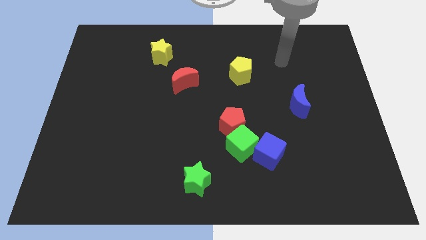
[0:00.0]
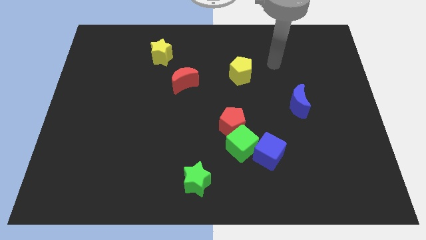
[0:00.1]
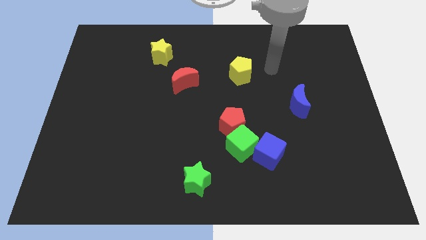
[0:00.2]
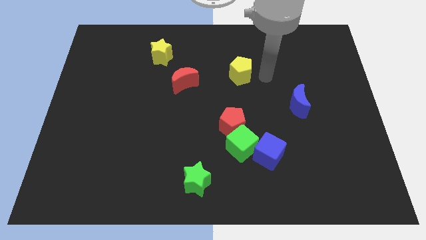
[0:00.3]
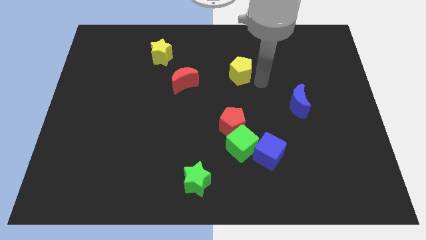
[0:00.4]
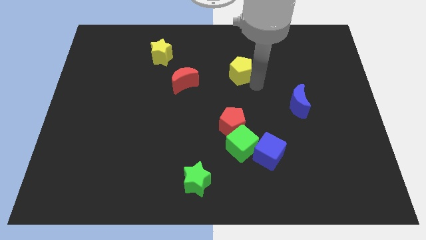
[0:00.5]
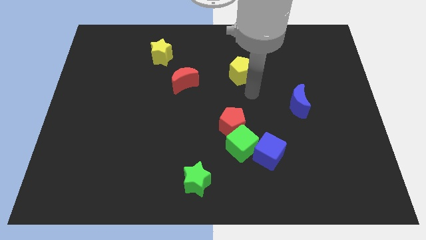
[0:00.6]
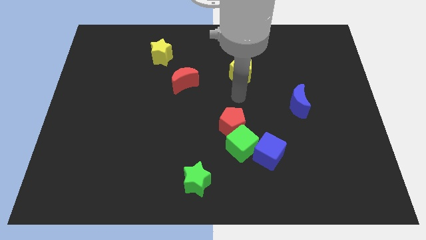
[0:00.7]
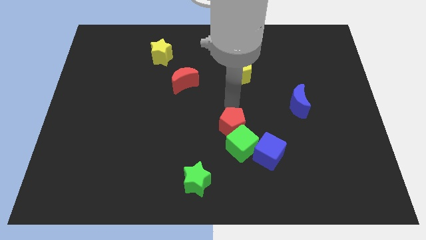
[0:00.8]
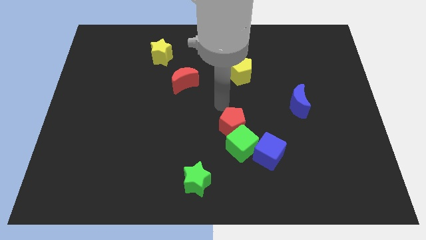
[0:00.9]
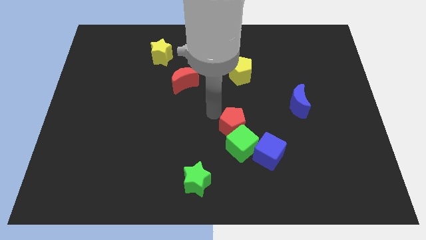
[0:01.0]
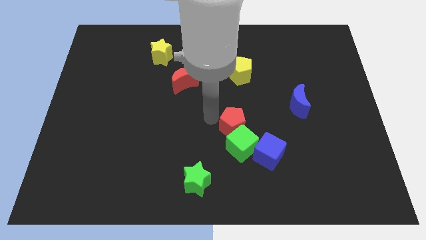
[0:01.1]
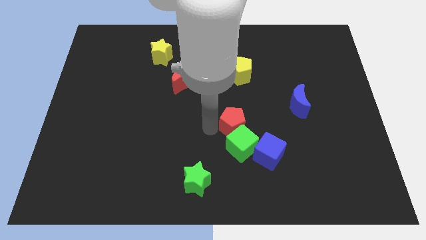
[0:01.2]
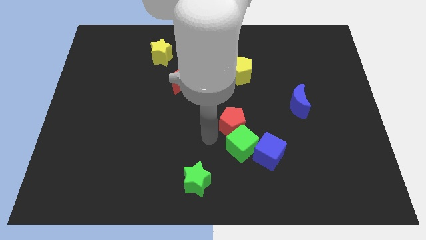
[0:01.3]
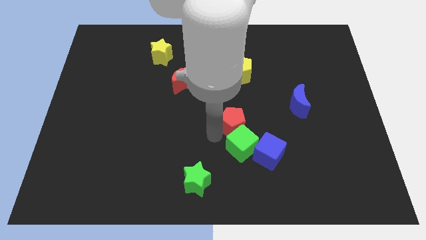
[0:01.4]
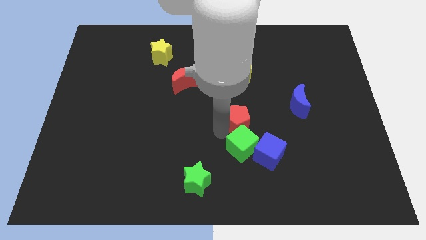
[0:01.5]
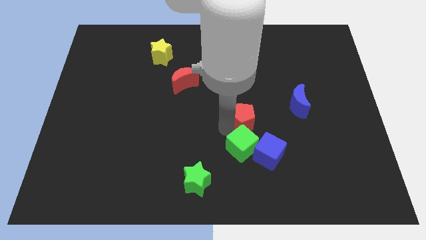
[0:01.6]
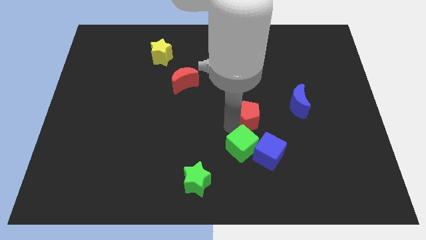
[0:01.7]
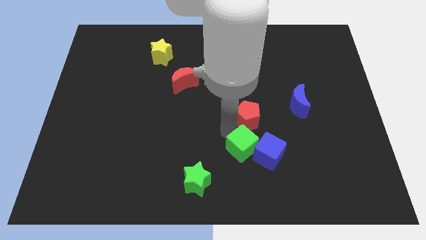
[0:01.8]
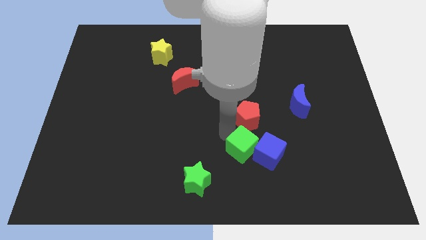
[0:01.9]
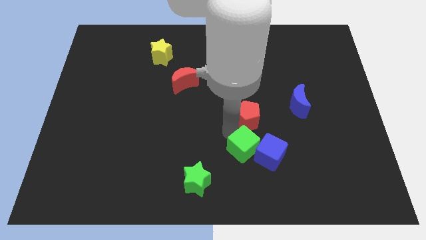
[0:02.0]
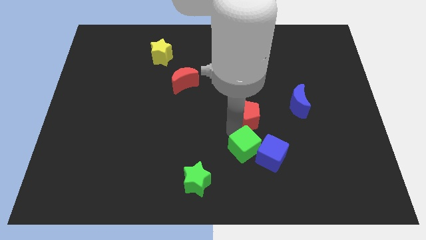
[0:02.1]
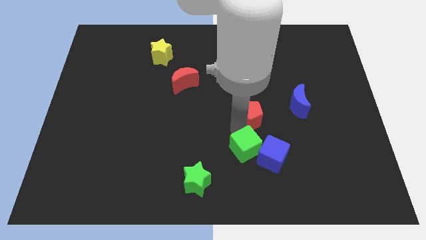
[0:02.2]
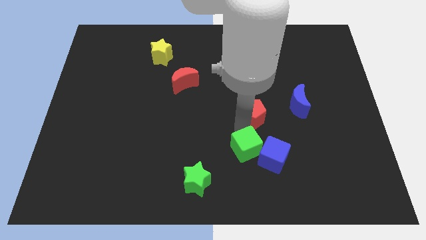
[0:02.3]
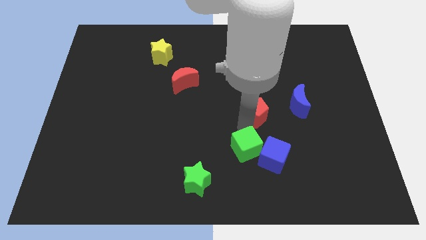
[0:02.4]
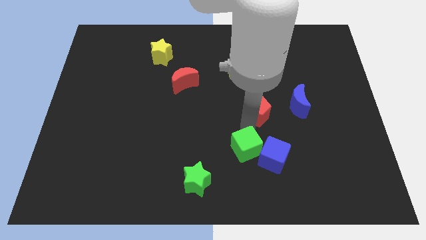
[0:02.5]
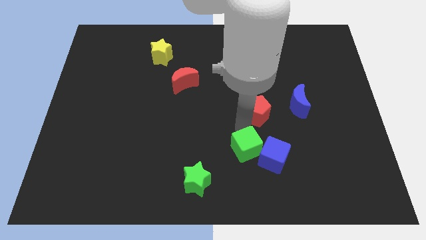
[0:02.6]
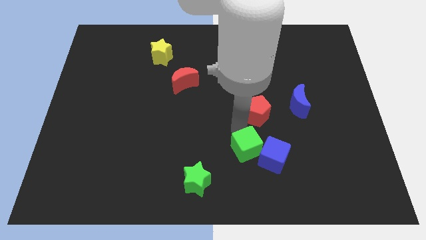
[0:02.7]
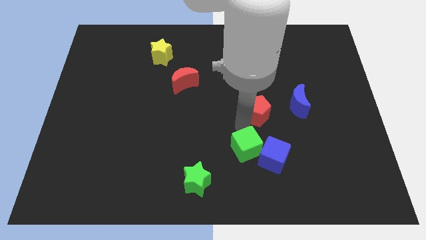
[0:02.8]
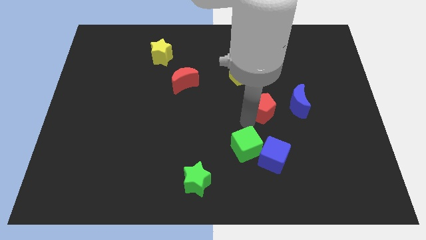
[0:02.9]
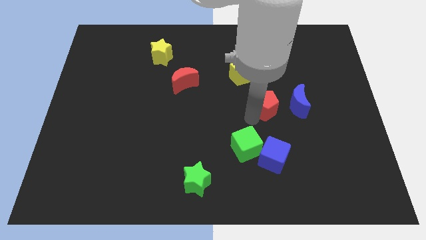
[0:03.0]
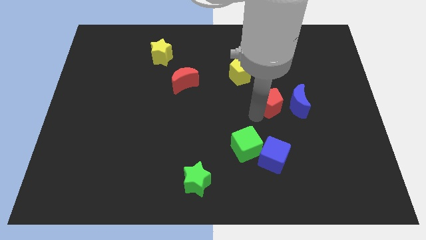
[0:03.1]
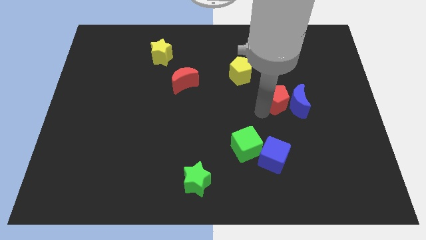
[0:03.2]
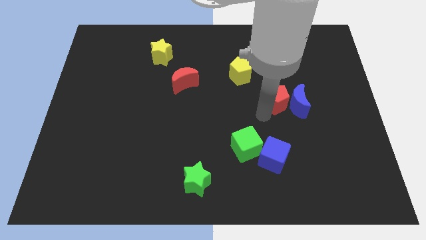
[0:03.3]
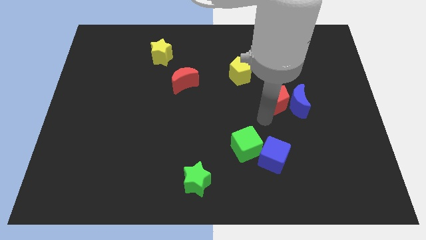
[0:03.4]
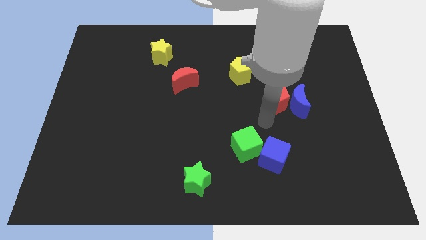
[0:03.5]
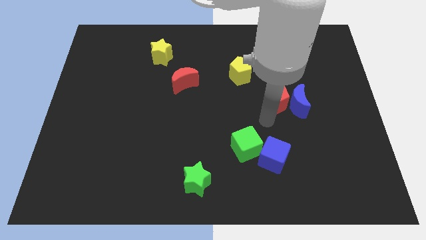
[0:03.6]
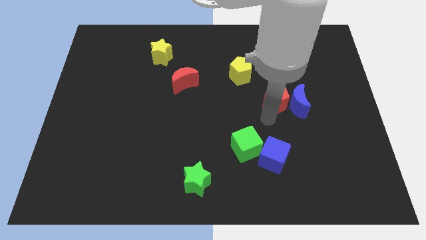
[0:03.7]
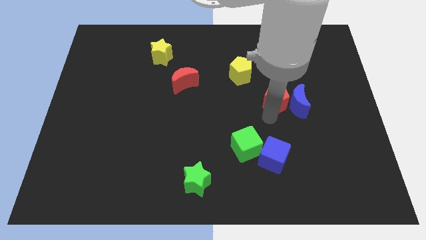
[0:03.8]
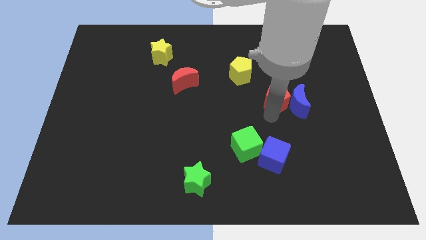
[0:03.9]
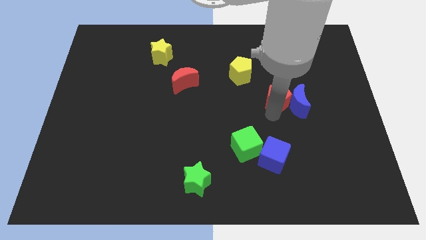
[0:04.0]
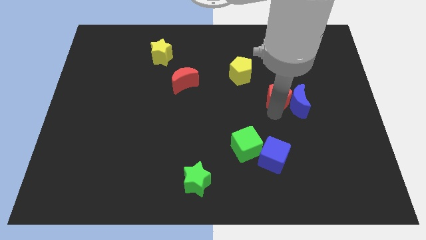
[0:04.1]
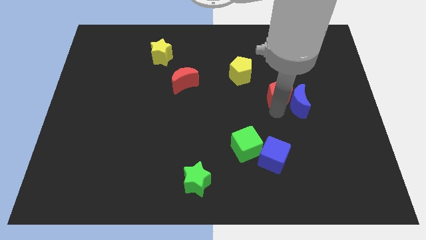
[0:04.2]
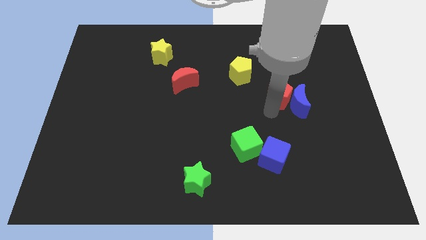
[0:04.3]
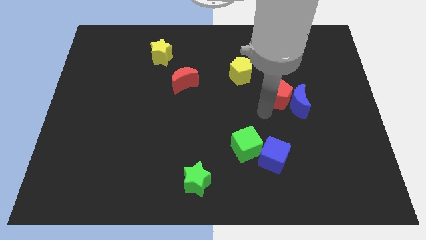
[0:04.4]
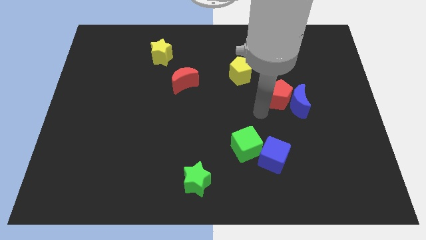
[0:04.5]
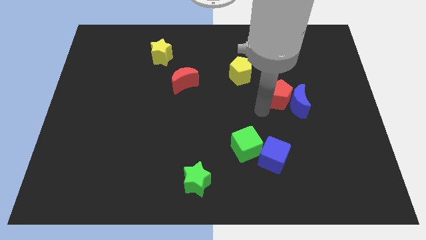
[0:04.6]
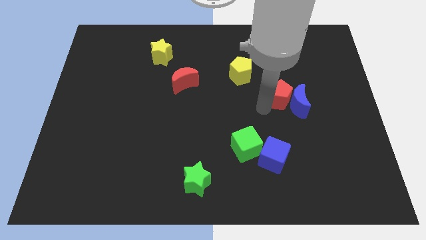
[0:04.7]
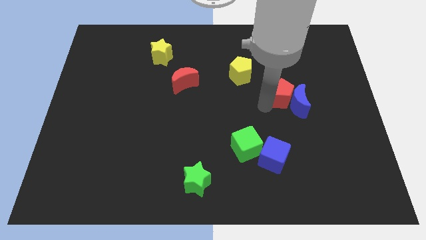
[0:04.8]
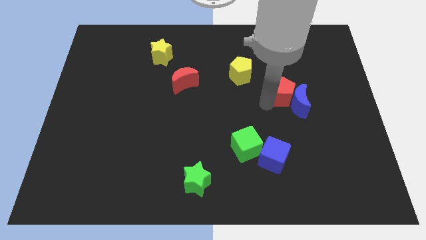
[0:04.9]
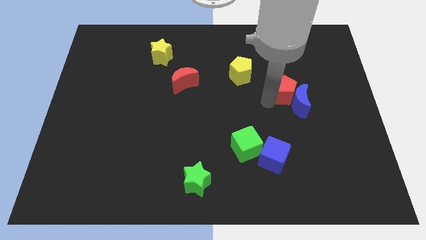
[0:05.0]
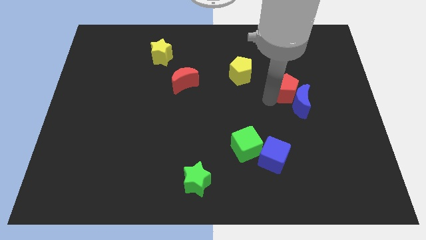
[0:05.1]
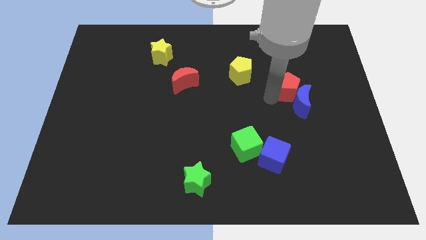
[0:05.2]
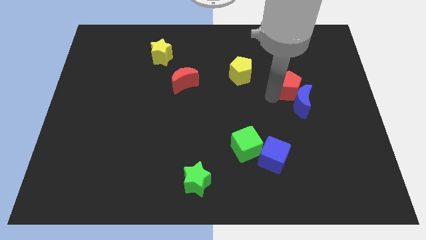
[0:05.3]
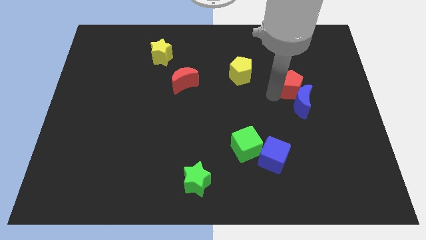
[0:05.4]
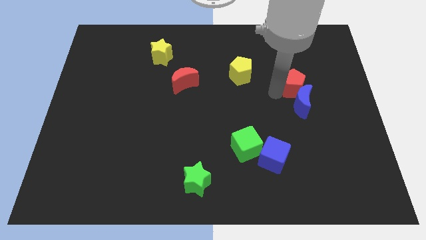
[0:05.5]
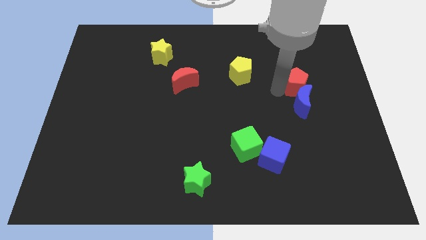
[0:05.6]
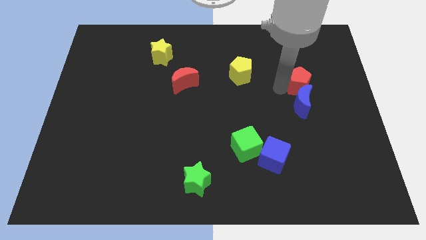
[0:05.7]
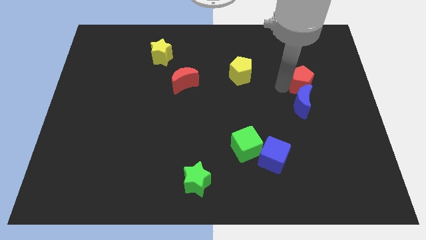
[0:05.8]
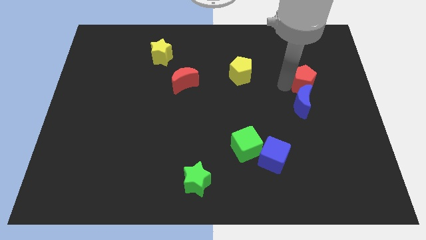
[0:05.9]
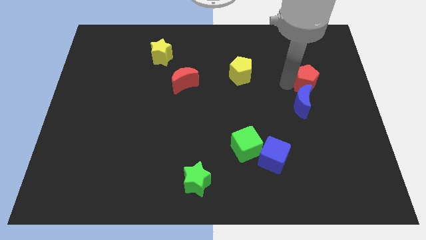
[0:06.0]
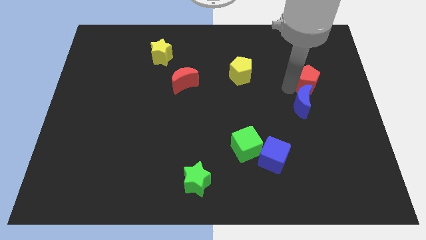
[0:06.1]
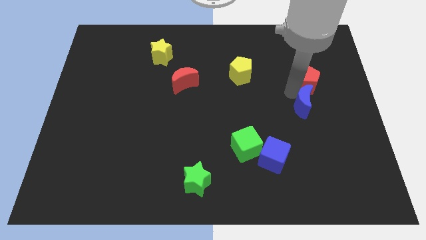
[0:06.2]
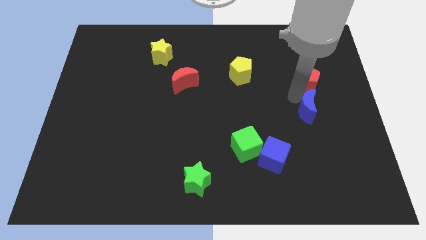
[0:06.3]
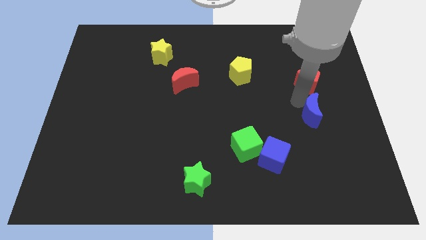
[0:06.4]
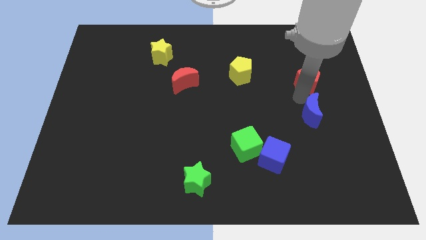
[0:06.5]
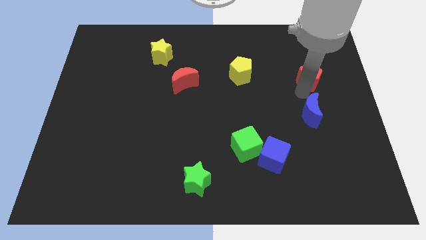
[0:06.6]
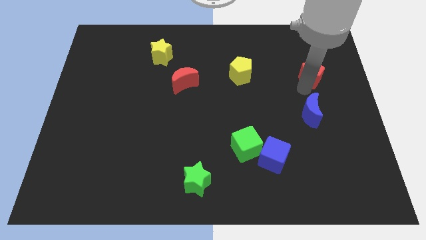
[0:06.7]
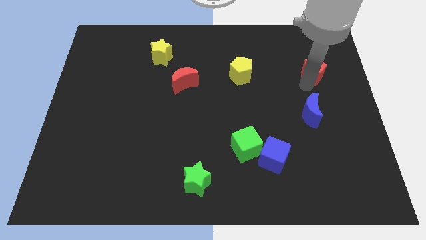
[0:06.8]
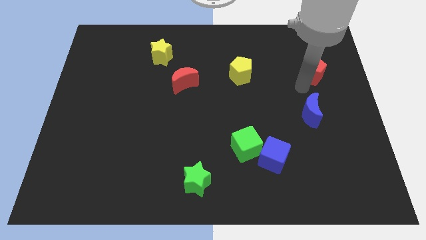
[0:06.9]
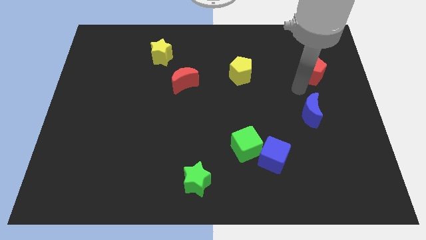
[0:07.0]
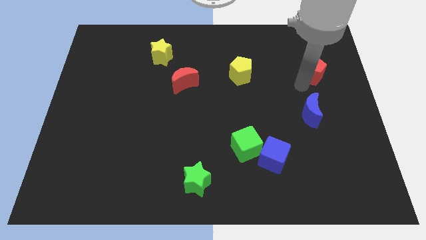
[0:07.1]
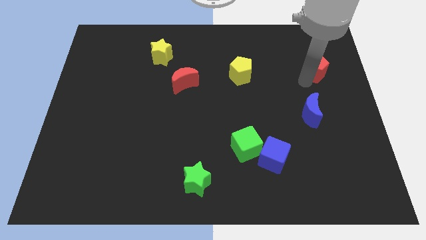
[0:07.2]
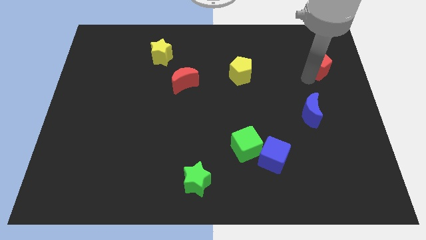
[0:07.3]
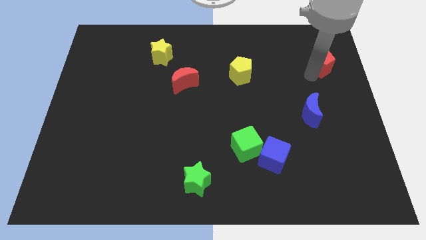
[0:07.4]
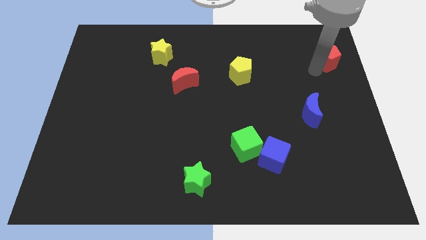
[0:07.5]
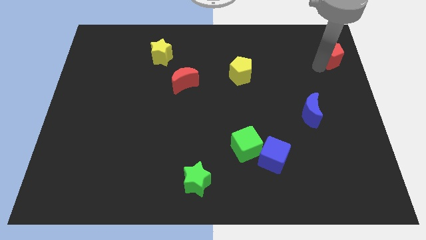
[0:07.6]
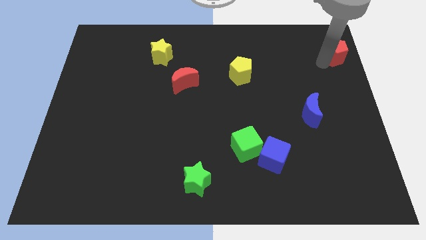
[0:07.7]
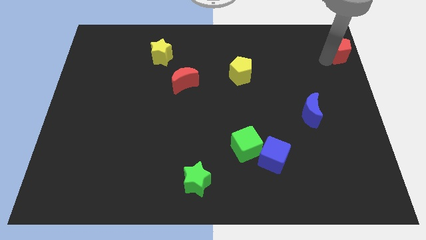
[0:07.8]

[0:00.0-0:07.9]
push the red pentagon to the top right of the board
